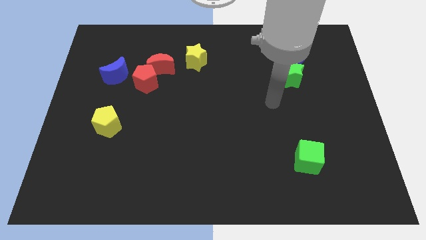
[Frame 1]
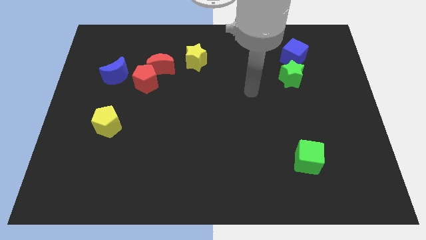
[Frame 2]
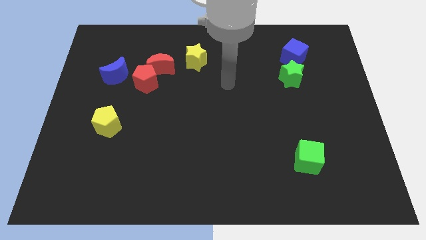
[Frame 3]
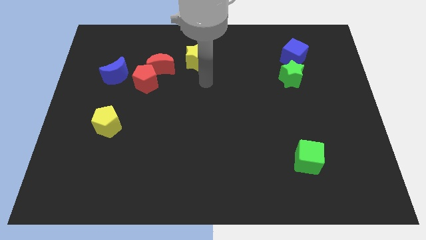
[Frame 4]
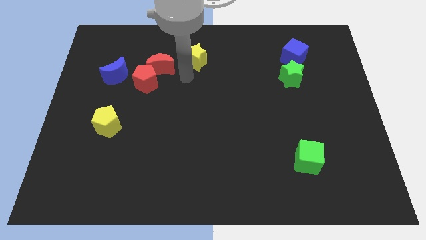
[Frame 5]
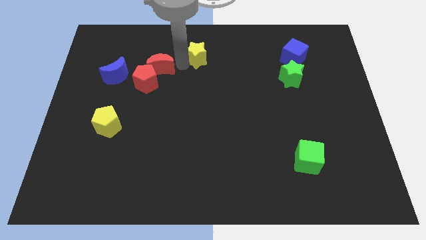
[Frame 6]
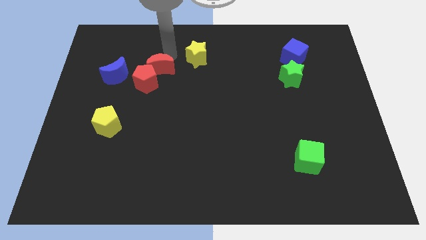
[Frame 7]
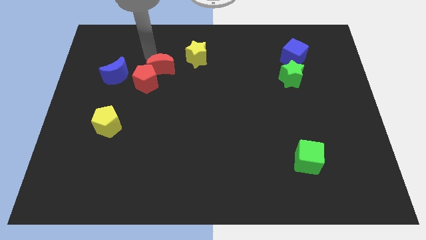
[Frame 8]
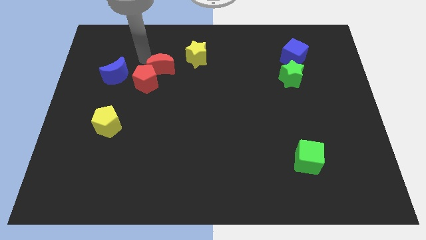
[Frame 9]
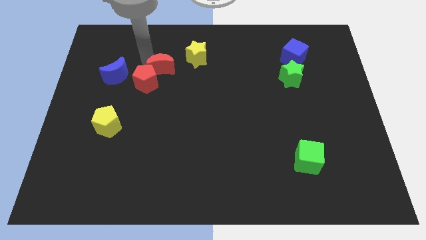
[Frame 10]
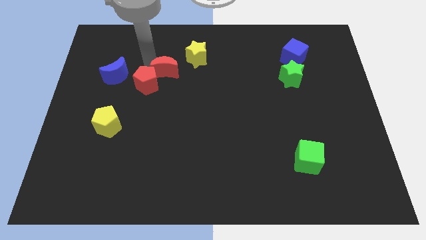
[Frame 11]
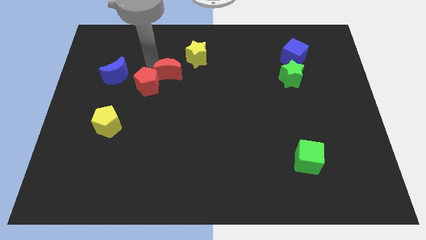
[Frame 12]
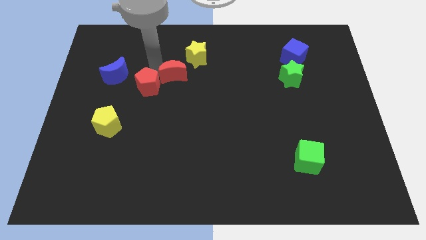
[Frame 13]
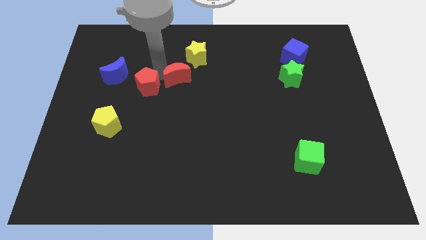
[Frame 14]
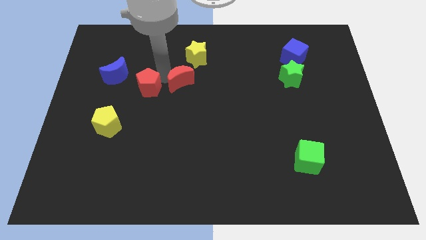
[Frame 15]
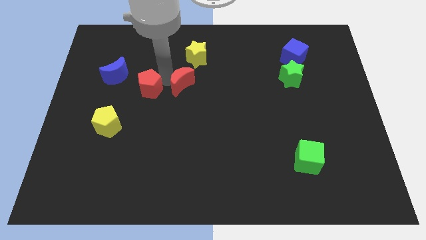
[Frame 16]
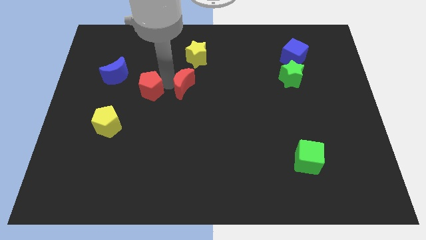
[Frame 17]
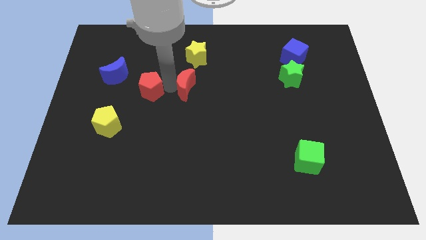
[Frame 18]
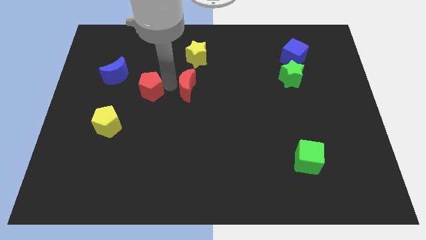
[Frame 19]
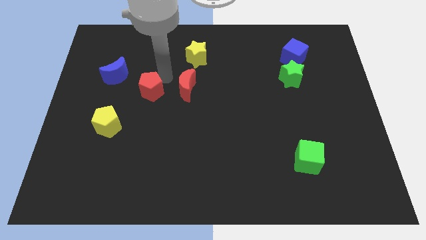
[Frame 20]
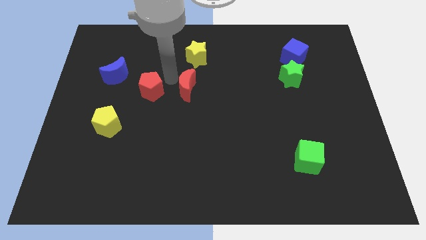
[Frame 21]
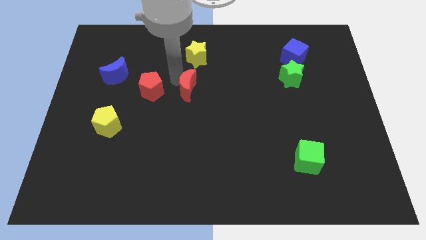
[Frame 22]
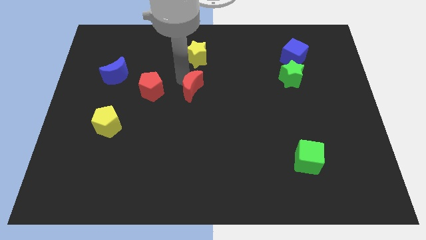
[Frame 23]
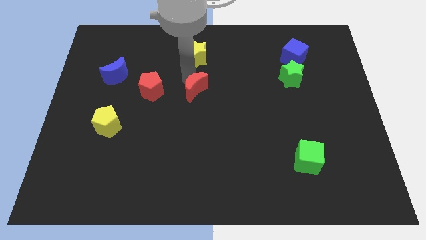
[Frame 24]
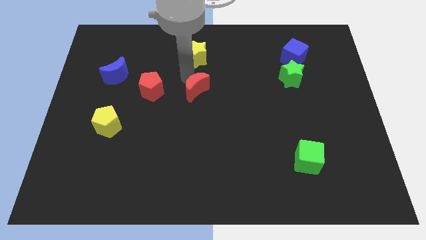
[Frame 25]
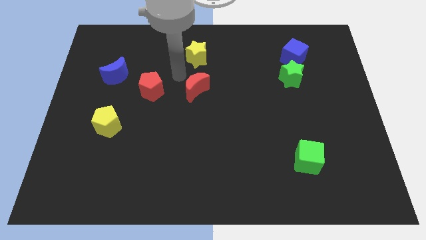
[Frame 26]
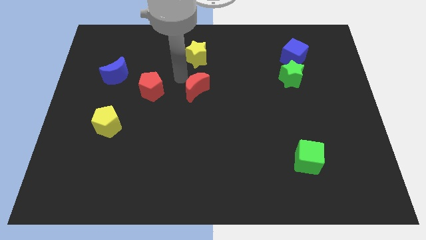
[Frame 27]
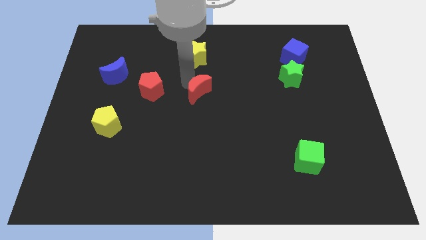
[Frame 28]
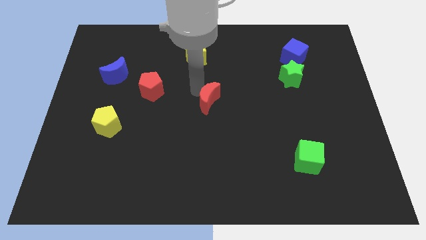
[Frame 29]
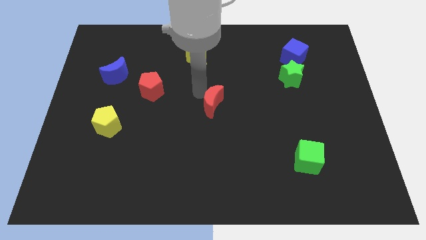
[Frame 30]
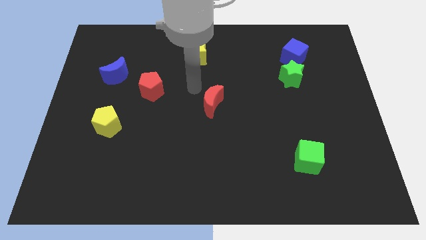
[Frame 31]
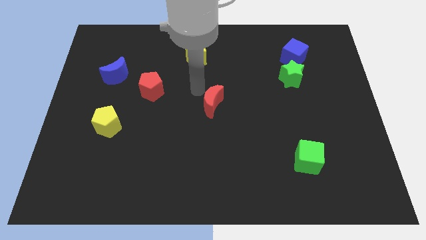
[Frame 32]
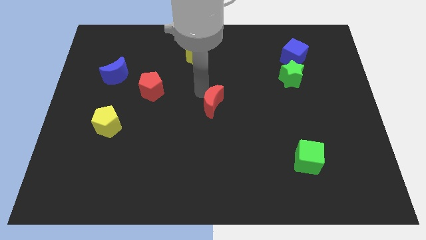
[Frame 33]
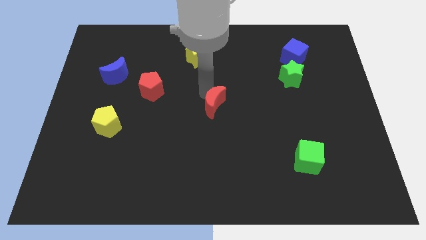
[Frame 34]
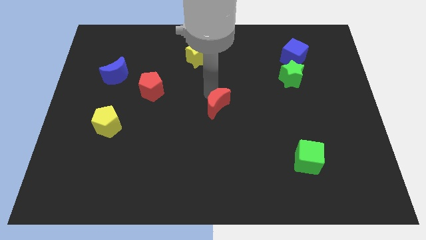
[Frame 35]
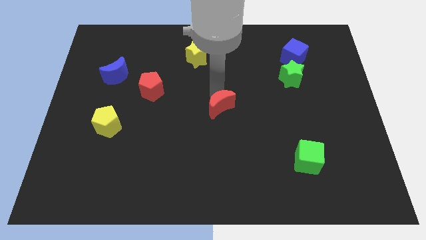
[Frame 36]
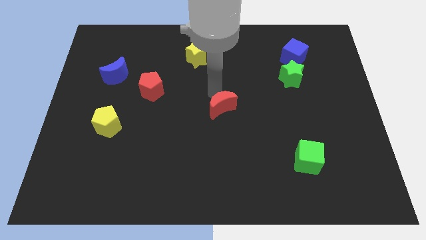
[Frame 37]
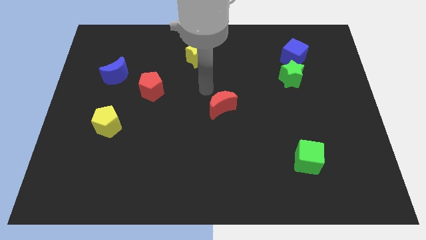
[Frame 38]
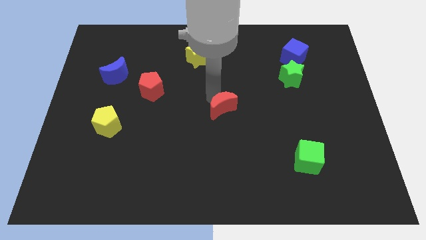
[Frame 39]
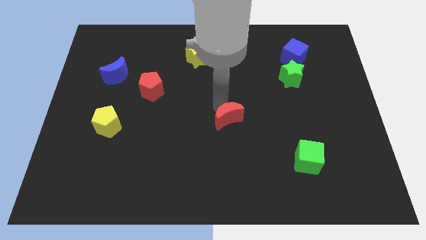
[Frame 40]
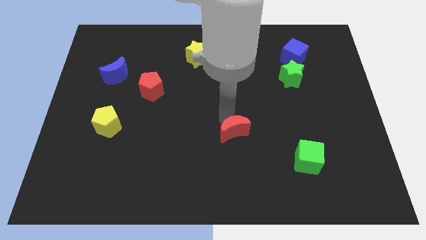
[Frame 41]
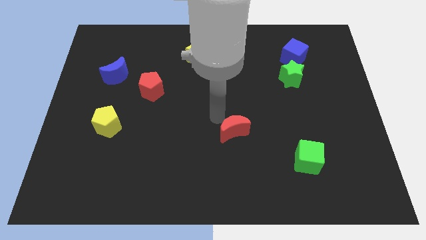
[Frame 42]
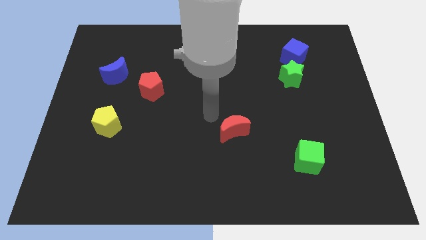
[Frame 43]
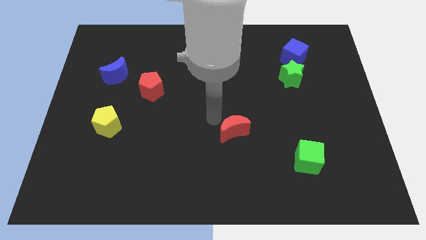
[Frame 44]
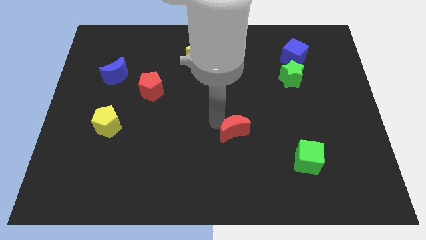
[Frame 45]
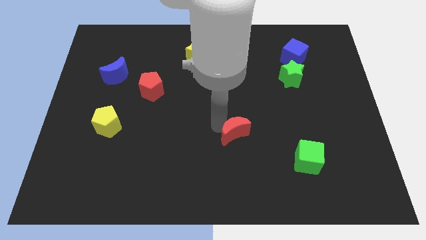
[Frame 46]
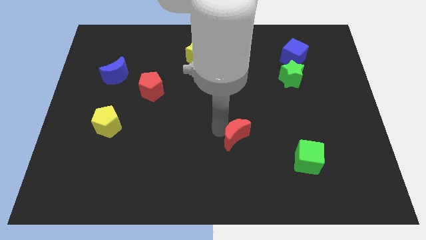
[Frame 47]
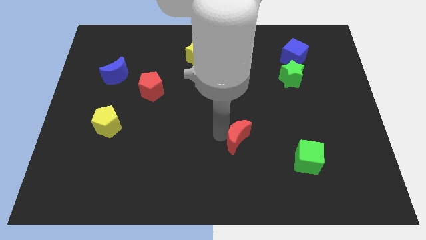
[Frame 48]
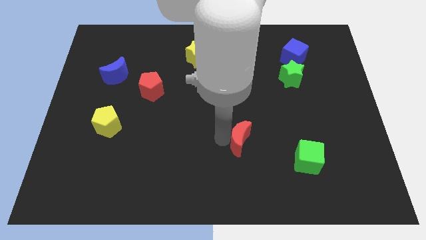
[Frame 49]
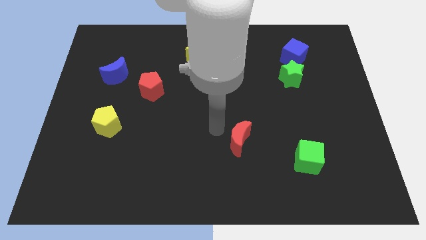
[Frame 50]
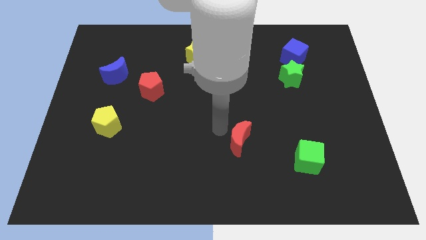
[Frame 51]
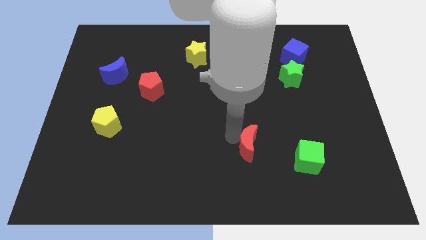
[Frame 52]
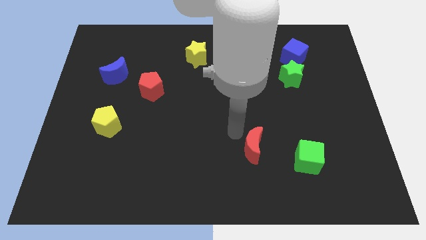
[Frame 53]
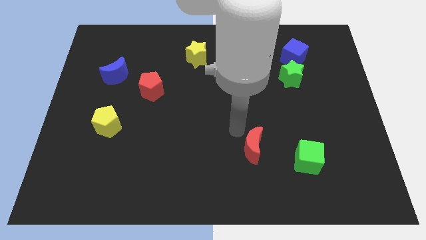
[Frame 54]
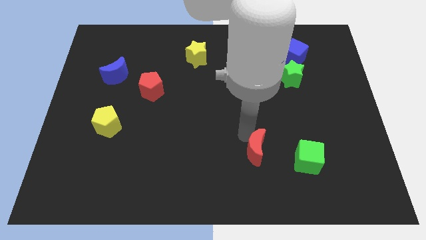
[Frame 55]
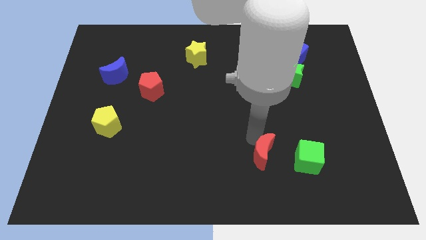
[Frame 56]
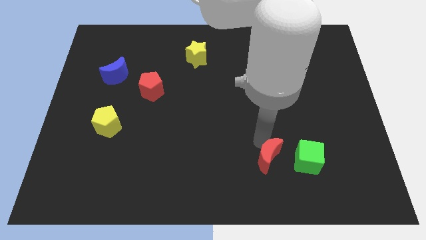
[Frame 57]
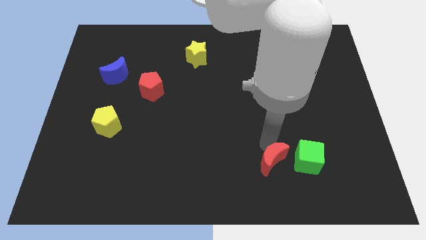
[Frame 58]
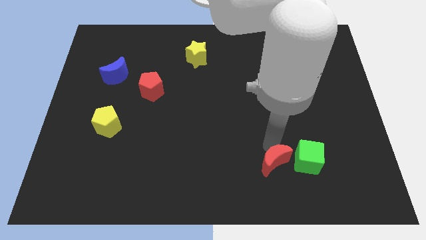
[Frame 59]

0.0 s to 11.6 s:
slide the red moon diagonally down and to the left of the green cube
